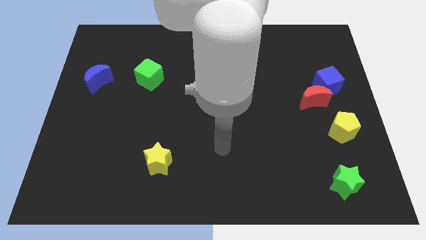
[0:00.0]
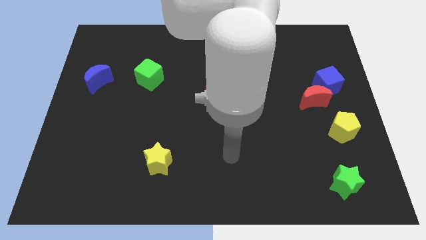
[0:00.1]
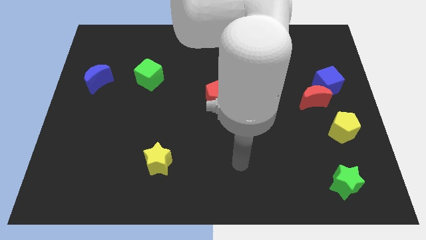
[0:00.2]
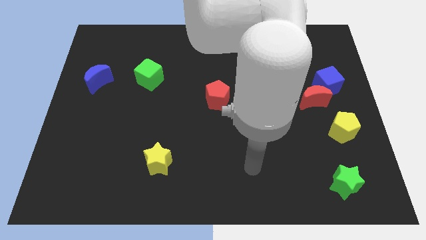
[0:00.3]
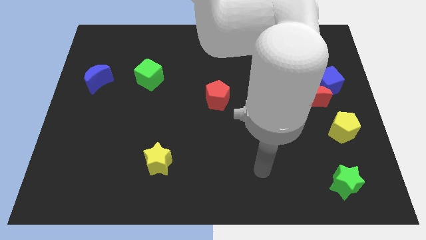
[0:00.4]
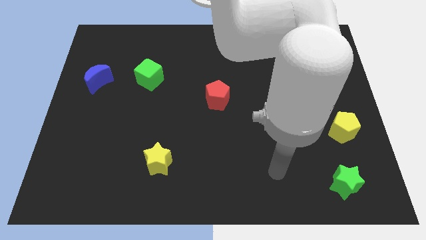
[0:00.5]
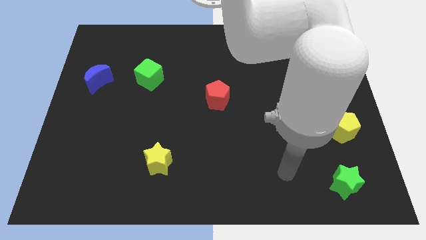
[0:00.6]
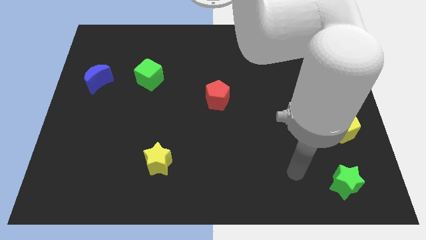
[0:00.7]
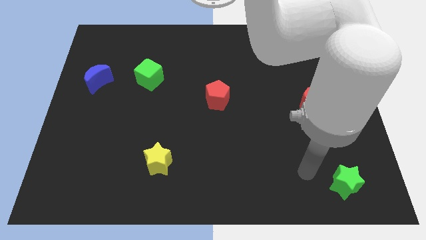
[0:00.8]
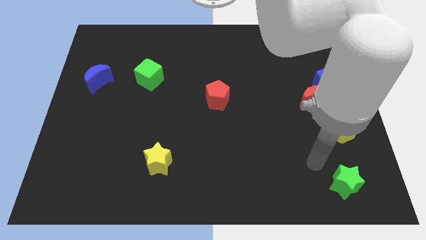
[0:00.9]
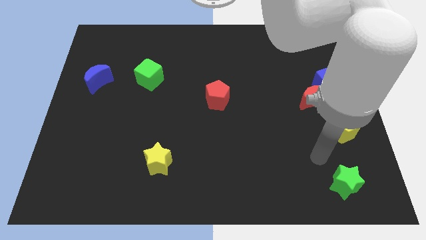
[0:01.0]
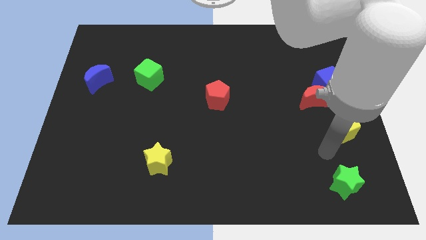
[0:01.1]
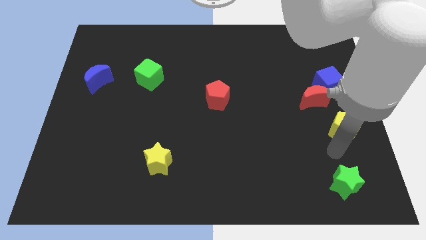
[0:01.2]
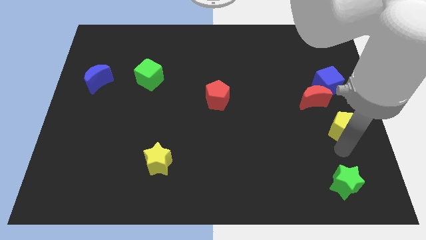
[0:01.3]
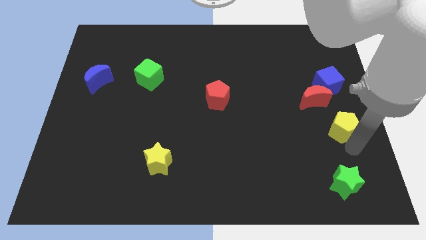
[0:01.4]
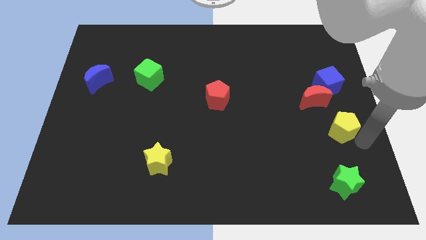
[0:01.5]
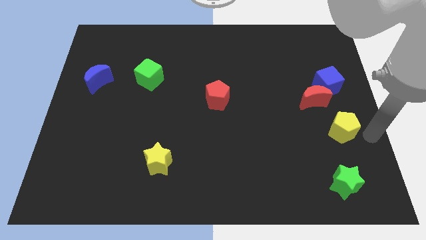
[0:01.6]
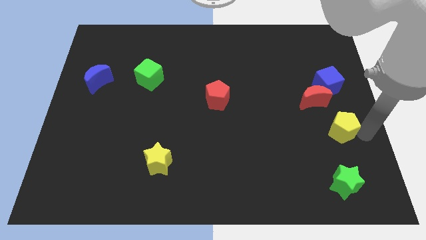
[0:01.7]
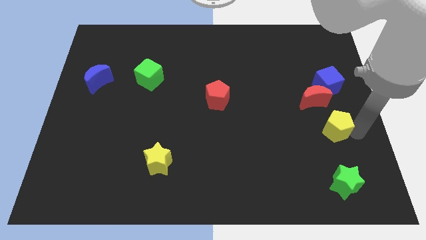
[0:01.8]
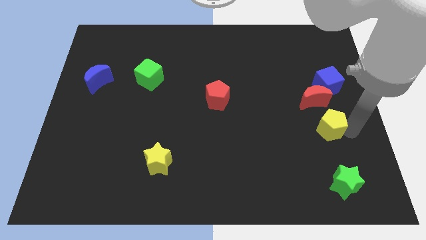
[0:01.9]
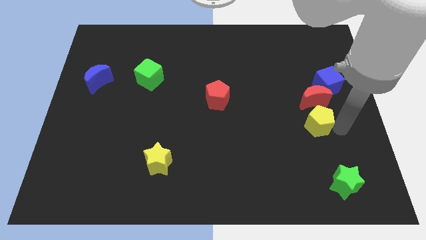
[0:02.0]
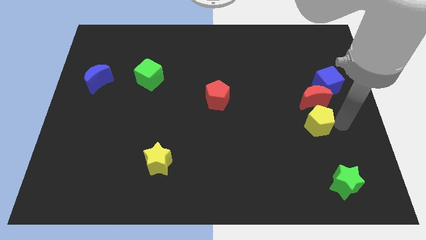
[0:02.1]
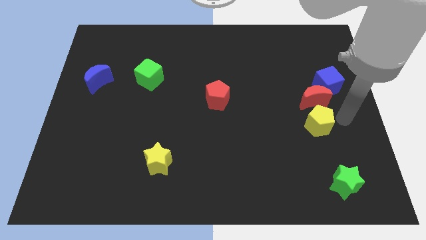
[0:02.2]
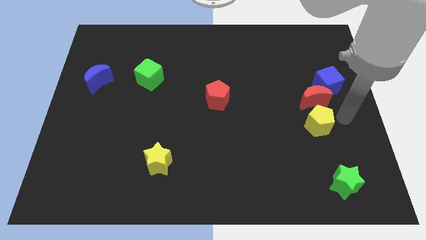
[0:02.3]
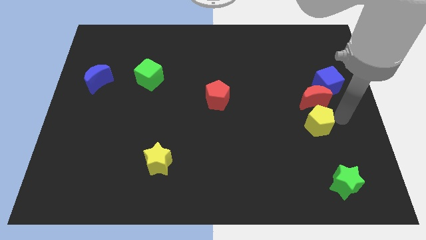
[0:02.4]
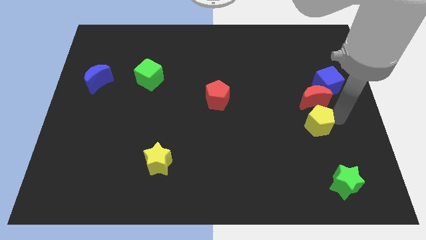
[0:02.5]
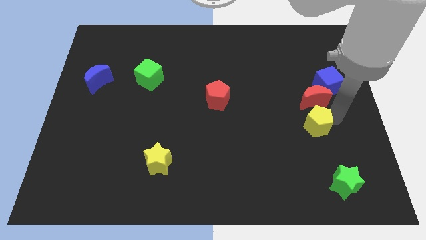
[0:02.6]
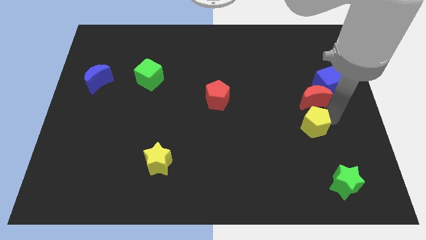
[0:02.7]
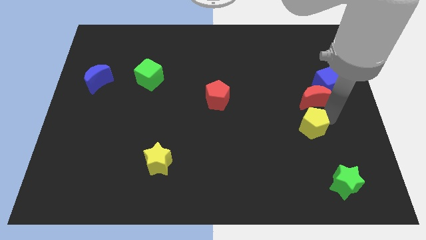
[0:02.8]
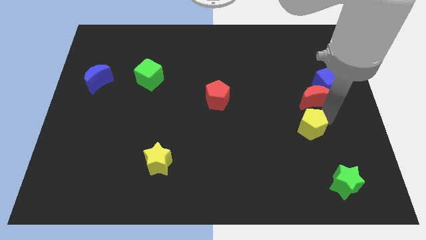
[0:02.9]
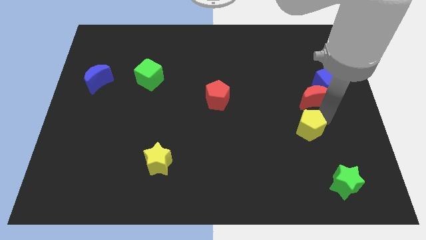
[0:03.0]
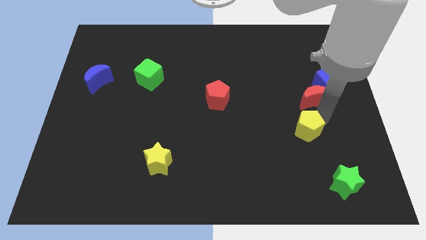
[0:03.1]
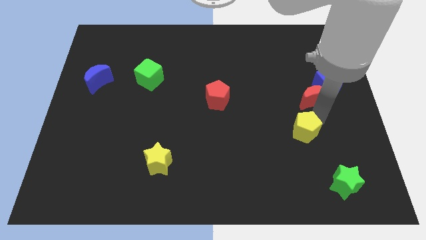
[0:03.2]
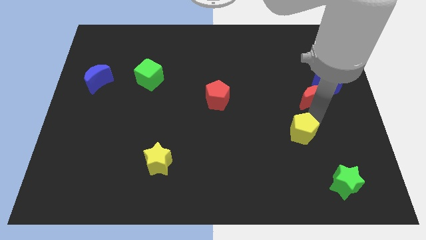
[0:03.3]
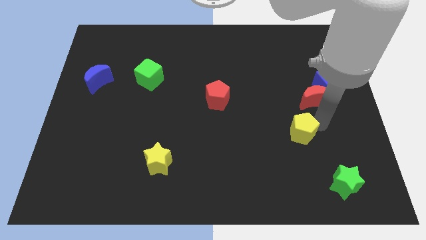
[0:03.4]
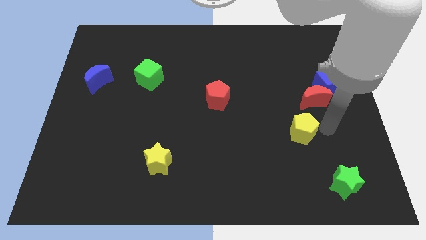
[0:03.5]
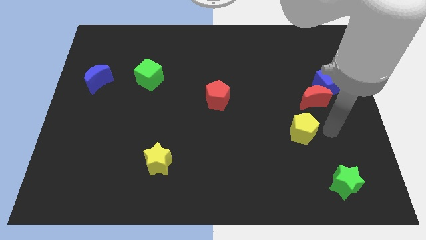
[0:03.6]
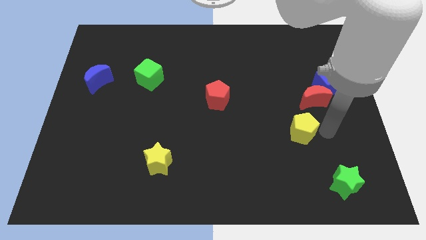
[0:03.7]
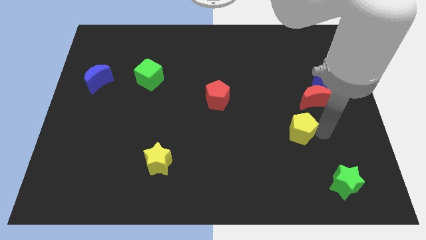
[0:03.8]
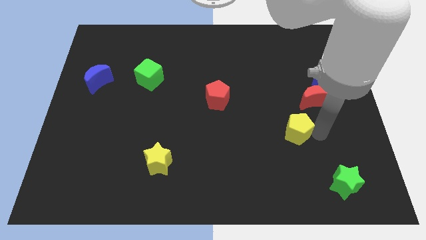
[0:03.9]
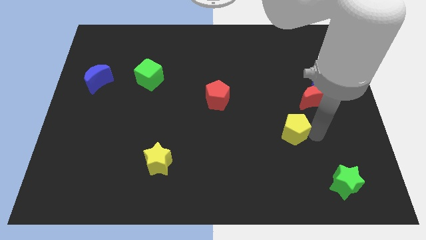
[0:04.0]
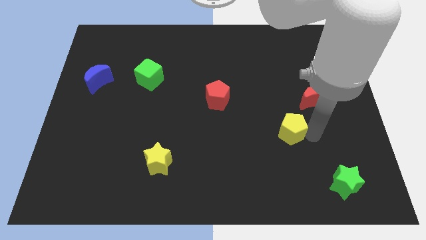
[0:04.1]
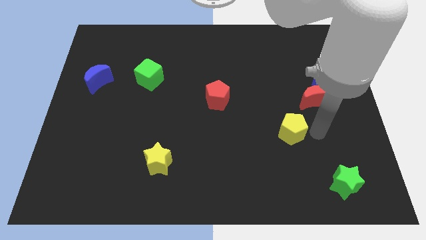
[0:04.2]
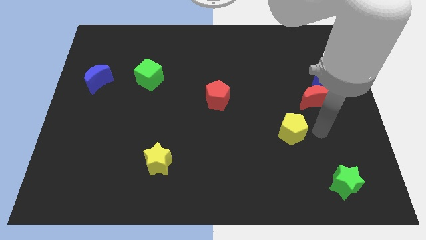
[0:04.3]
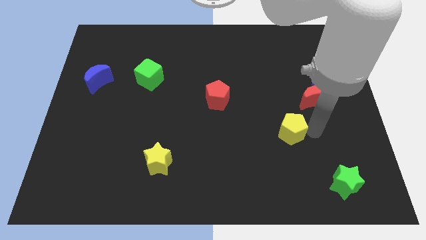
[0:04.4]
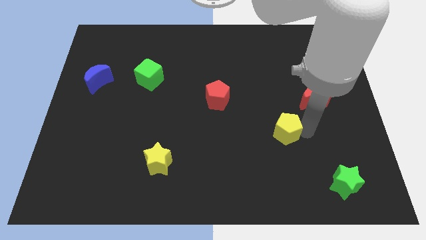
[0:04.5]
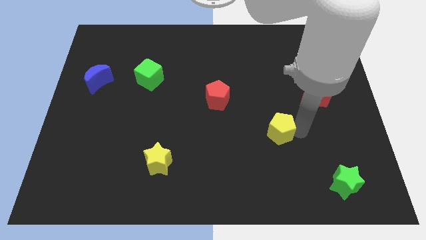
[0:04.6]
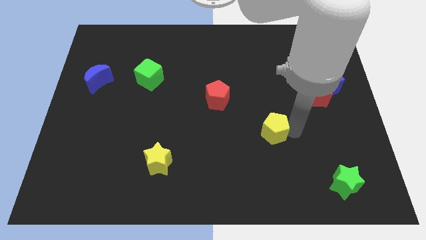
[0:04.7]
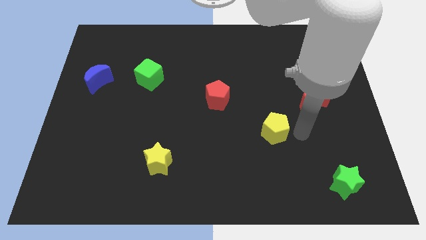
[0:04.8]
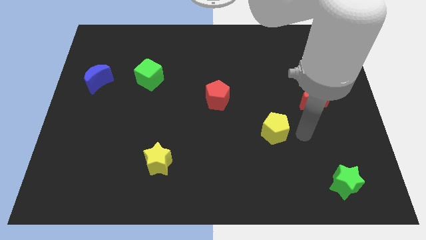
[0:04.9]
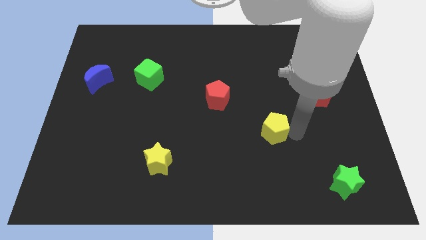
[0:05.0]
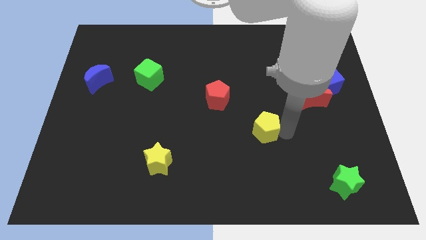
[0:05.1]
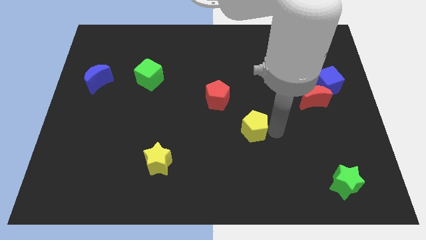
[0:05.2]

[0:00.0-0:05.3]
push the yellow pentagon to the left

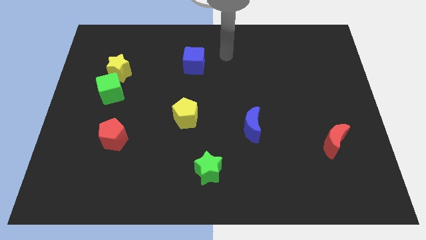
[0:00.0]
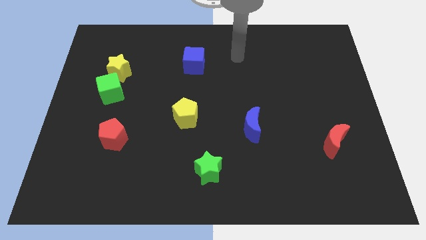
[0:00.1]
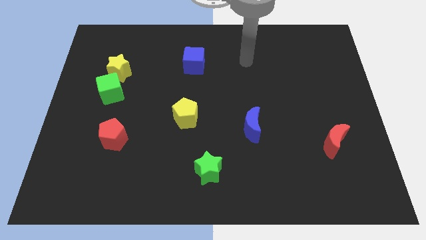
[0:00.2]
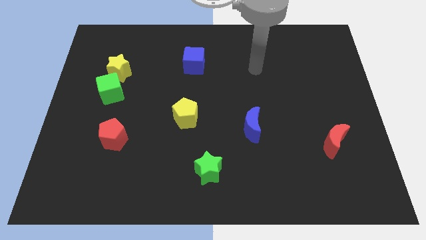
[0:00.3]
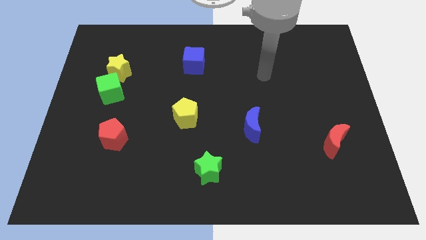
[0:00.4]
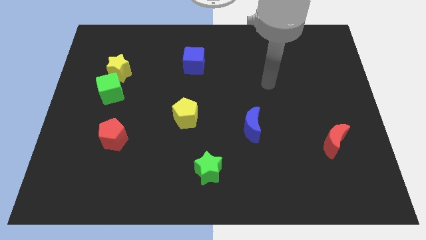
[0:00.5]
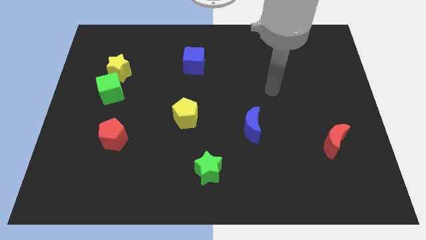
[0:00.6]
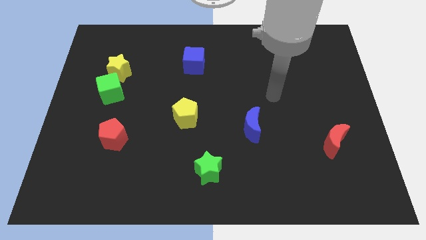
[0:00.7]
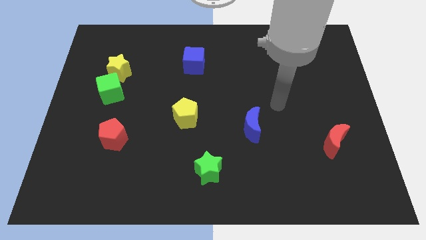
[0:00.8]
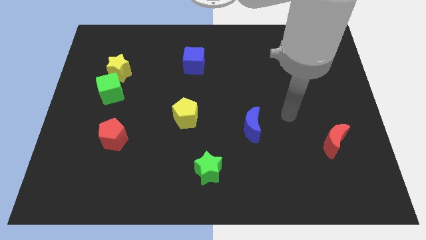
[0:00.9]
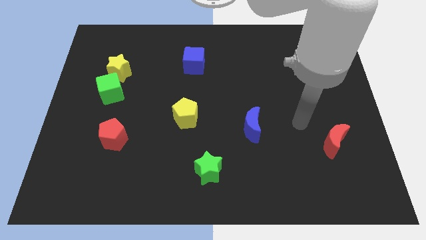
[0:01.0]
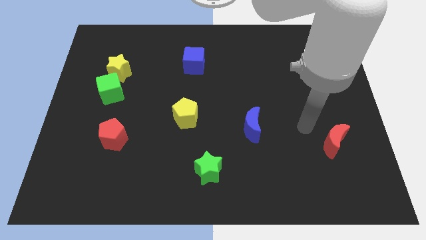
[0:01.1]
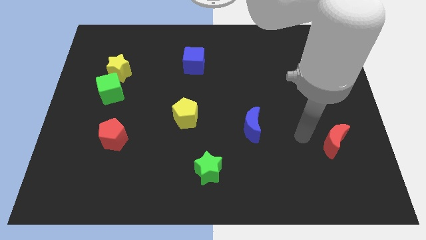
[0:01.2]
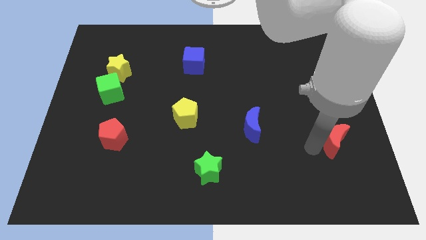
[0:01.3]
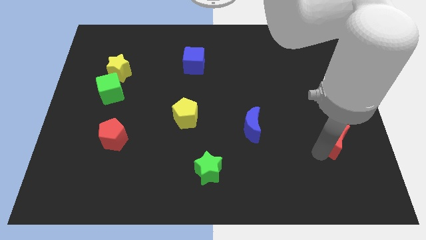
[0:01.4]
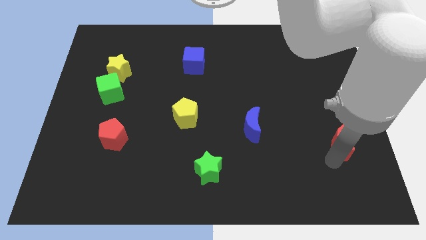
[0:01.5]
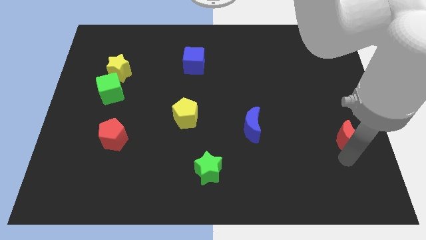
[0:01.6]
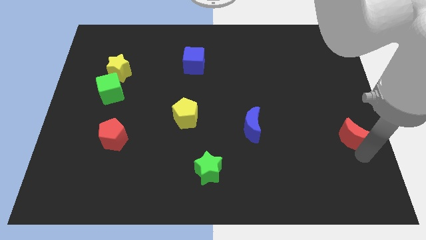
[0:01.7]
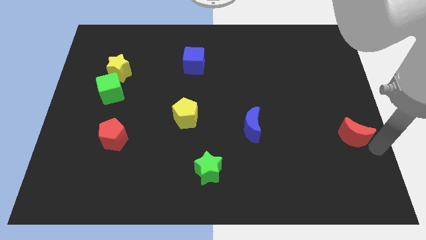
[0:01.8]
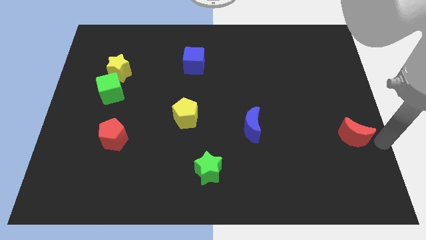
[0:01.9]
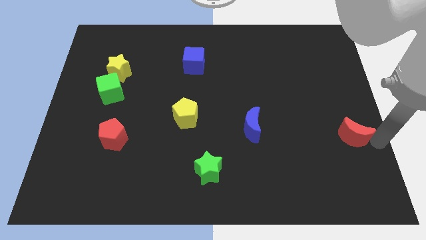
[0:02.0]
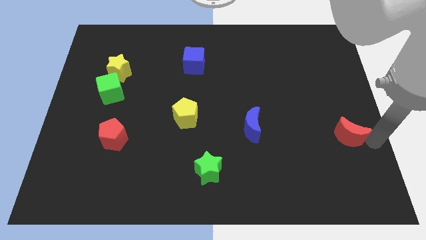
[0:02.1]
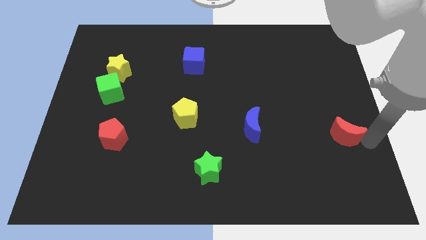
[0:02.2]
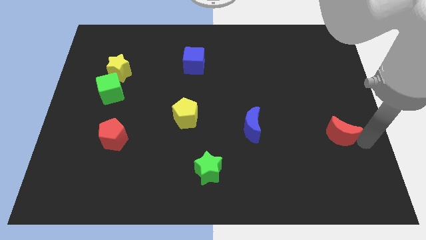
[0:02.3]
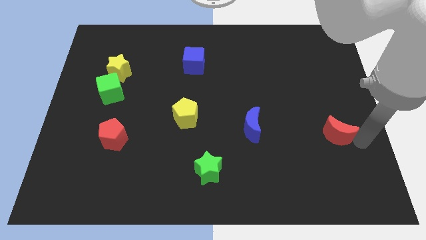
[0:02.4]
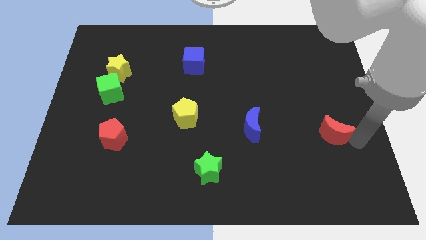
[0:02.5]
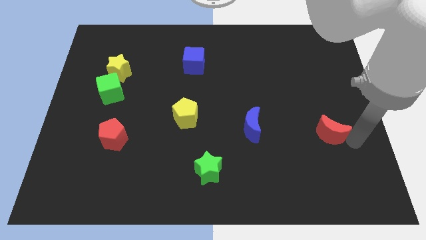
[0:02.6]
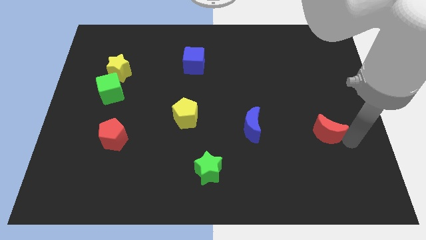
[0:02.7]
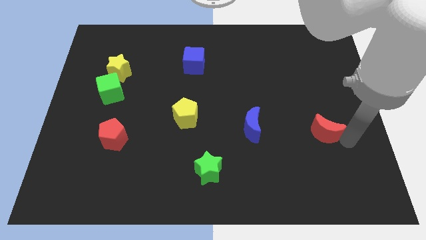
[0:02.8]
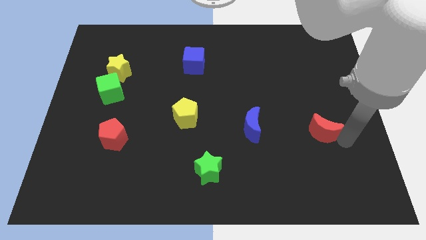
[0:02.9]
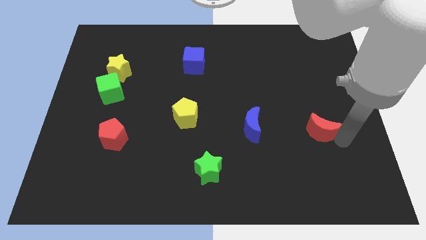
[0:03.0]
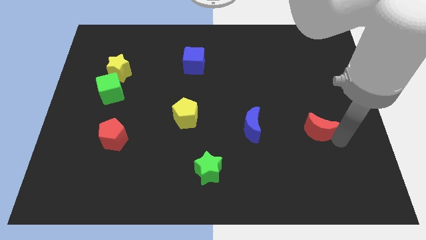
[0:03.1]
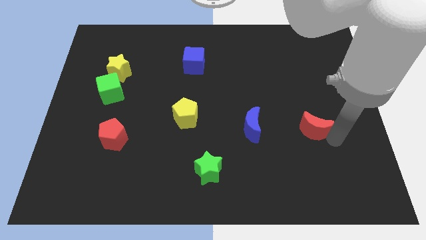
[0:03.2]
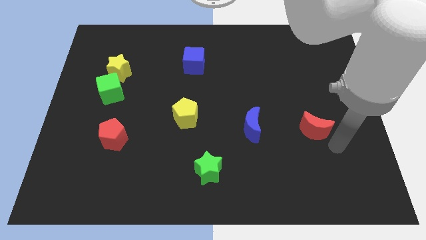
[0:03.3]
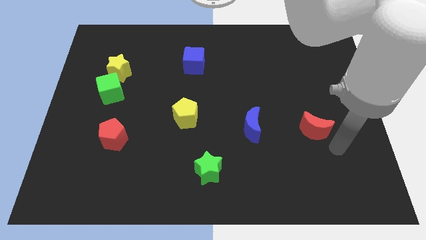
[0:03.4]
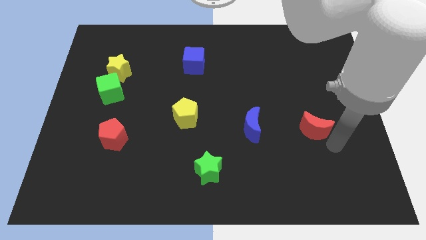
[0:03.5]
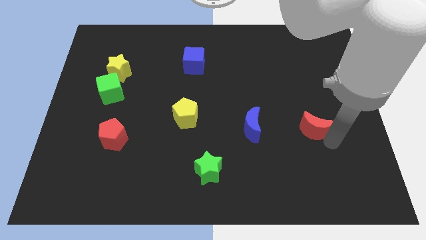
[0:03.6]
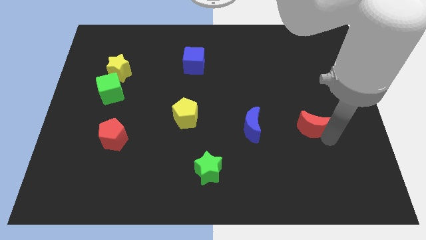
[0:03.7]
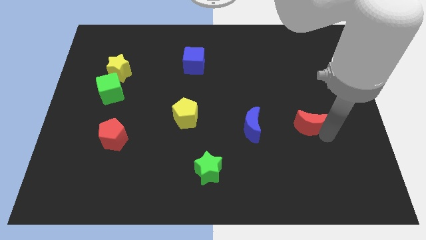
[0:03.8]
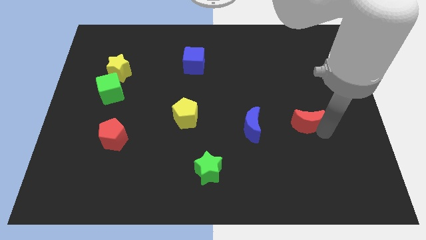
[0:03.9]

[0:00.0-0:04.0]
slightly slide the red moon up and left diagonally
